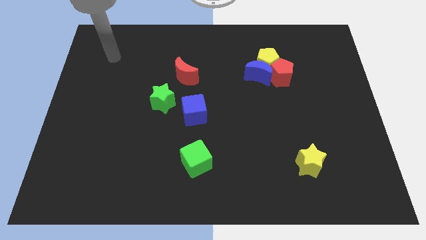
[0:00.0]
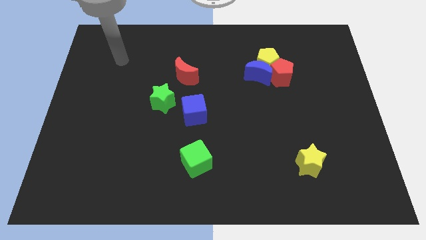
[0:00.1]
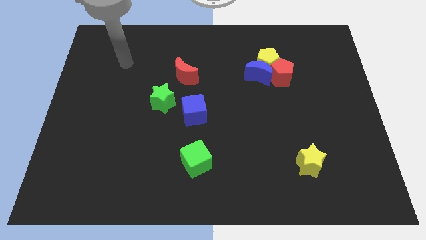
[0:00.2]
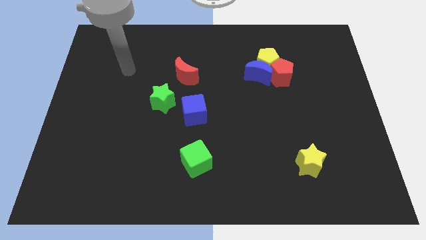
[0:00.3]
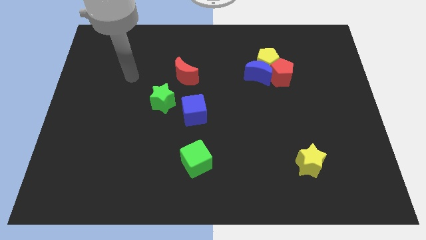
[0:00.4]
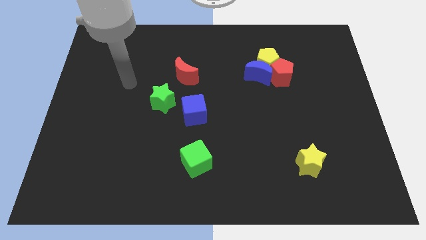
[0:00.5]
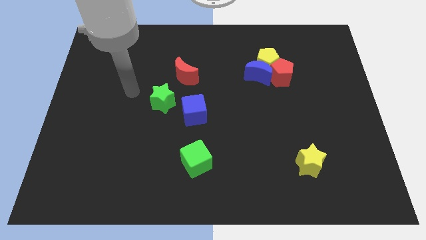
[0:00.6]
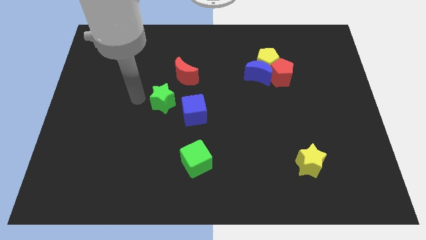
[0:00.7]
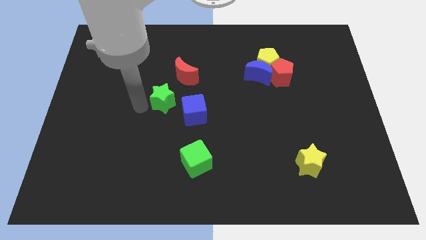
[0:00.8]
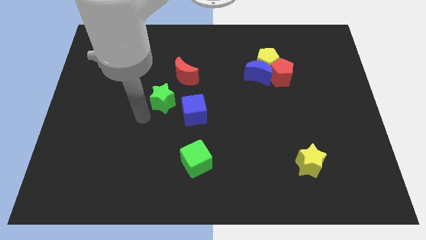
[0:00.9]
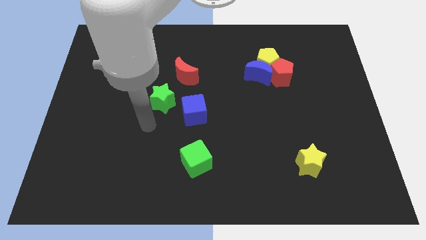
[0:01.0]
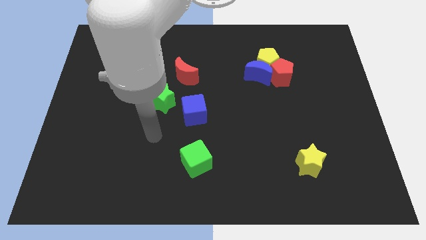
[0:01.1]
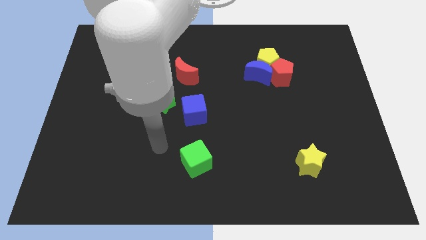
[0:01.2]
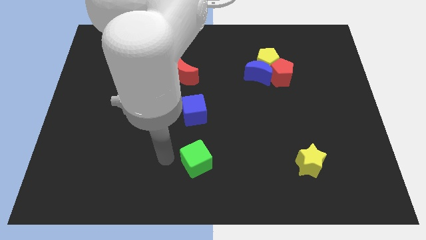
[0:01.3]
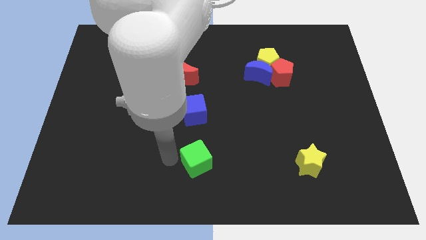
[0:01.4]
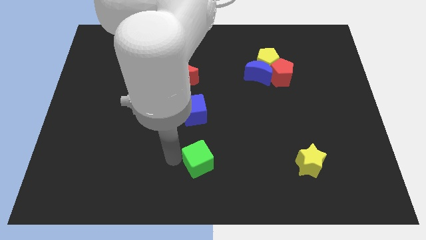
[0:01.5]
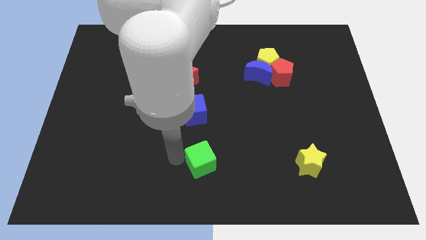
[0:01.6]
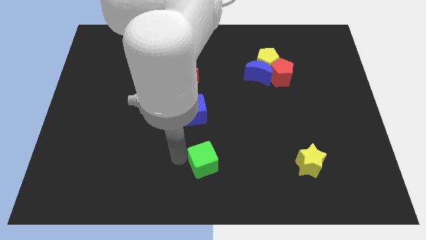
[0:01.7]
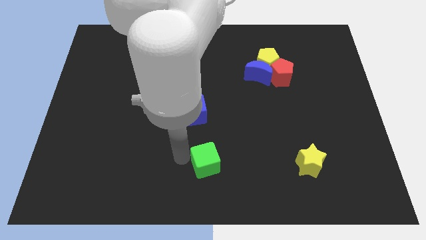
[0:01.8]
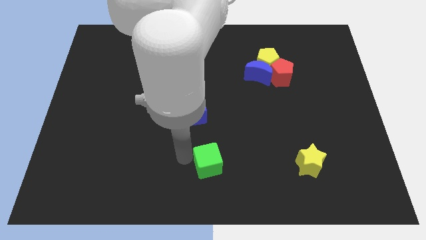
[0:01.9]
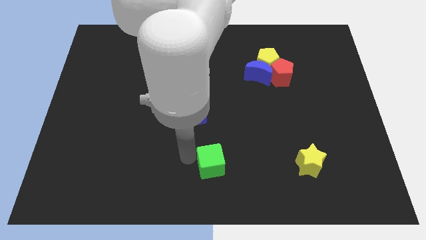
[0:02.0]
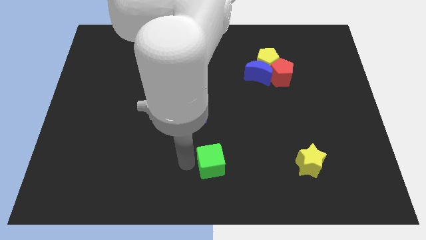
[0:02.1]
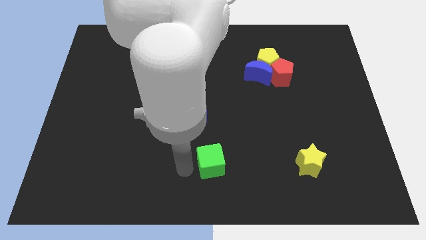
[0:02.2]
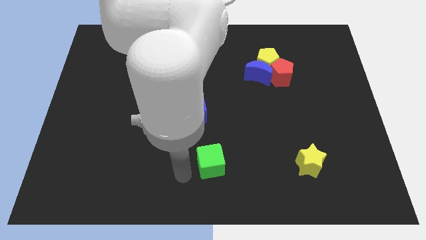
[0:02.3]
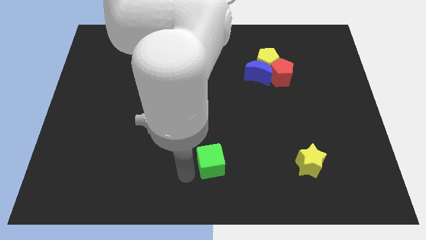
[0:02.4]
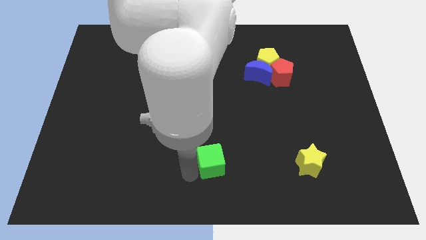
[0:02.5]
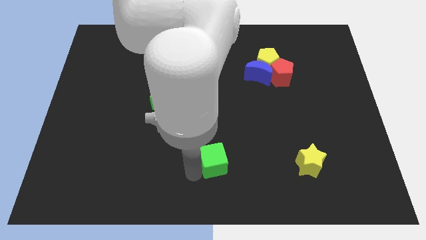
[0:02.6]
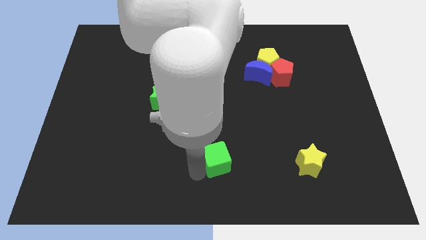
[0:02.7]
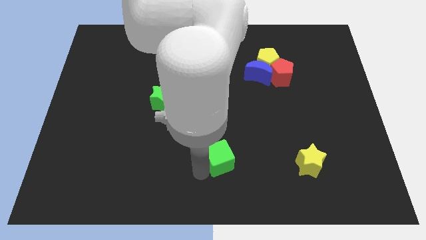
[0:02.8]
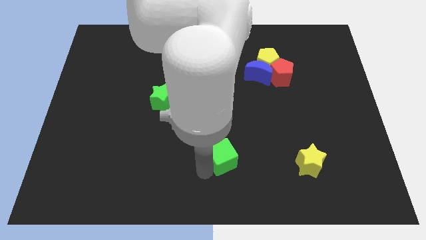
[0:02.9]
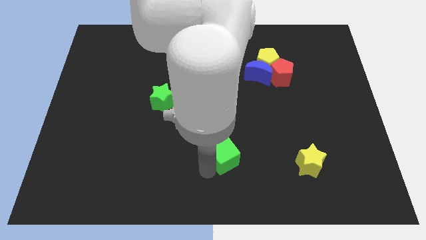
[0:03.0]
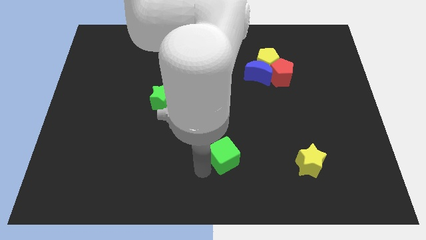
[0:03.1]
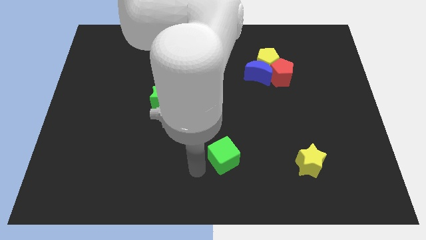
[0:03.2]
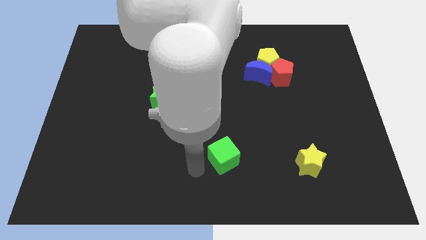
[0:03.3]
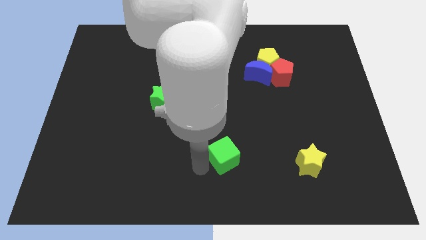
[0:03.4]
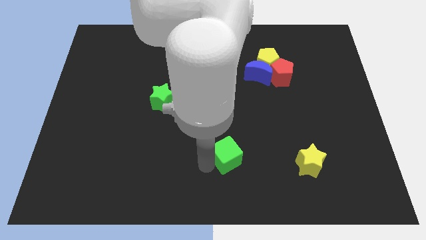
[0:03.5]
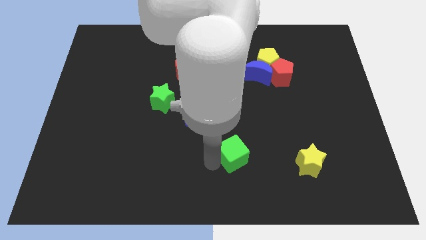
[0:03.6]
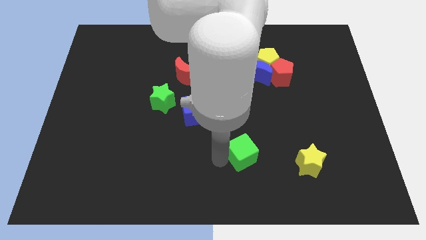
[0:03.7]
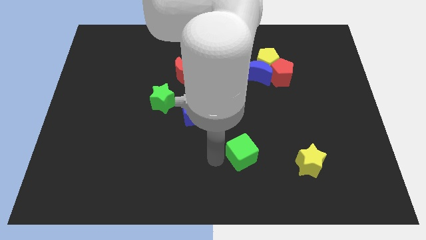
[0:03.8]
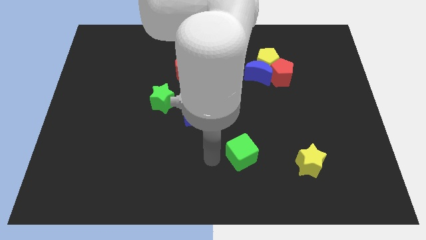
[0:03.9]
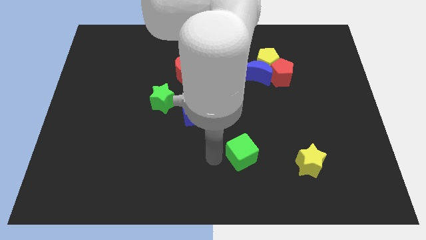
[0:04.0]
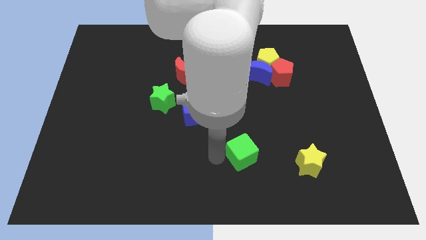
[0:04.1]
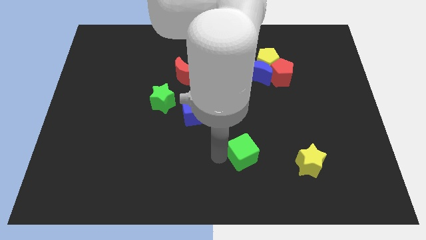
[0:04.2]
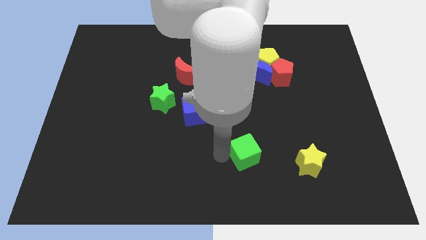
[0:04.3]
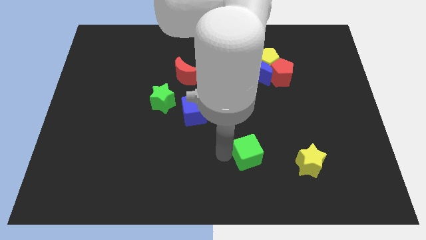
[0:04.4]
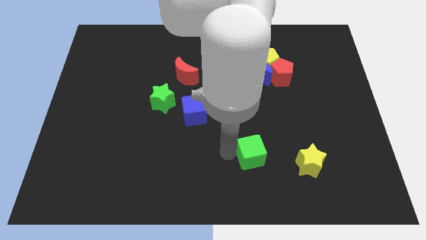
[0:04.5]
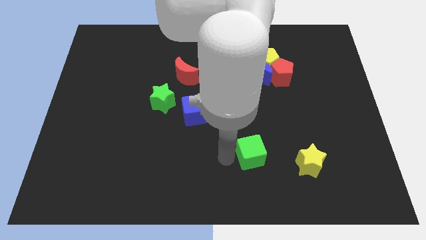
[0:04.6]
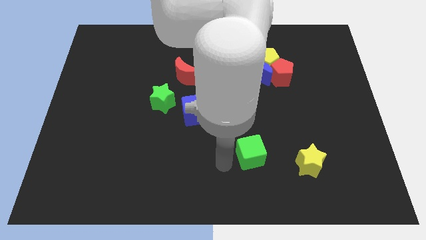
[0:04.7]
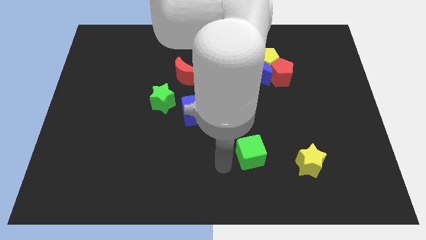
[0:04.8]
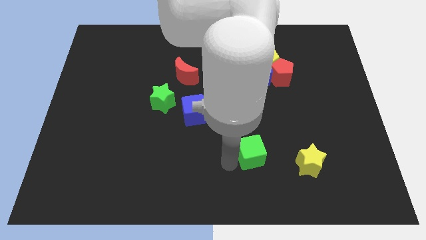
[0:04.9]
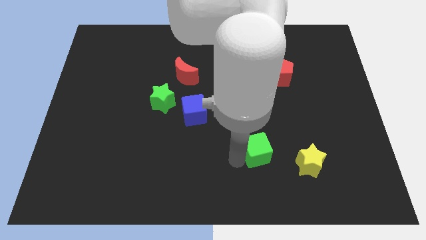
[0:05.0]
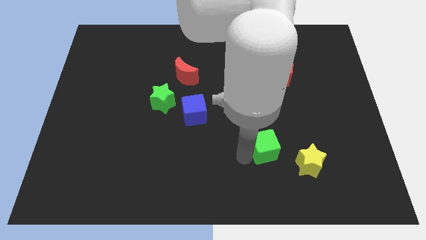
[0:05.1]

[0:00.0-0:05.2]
move the green cube diagonally up and to the left of the yellow star

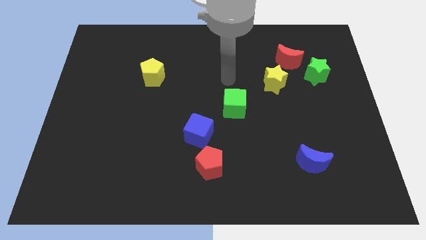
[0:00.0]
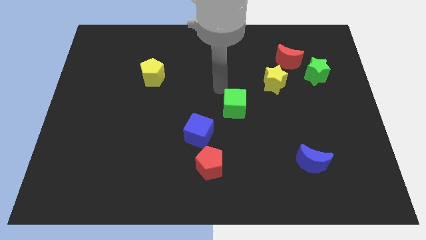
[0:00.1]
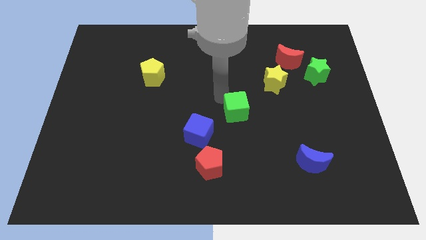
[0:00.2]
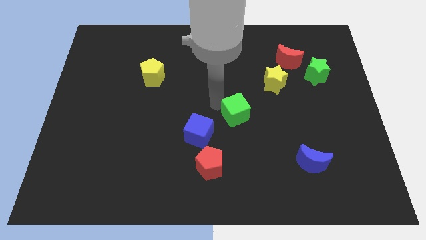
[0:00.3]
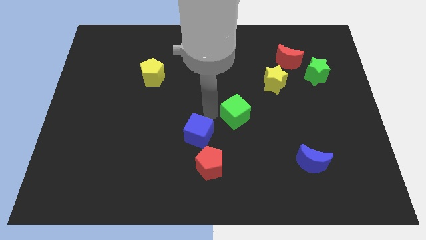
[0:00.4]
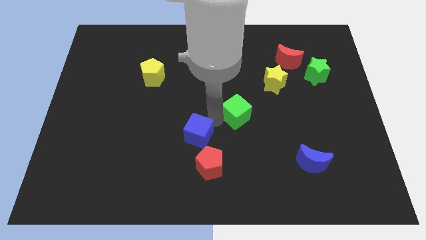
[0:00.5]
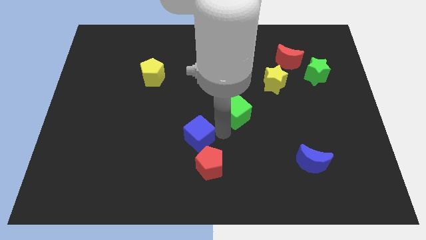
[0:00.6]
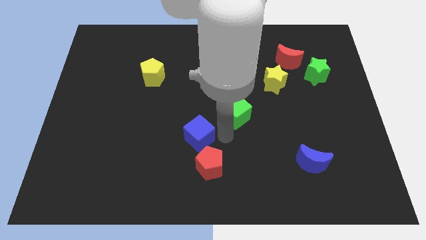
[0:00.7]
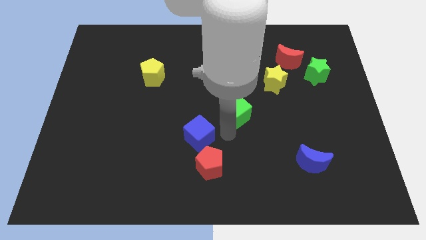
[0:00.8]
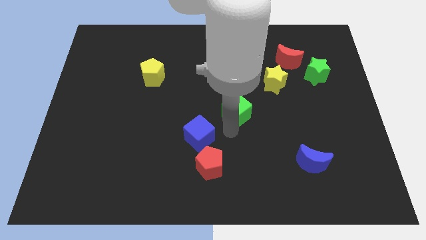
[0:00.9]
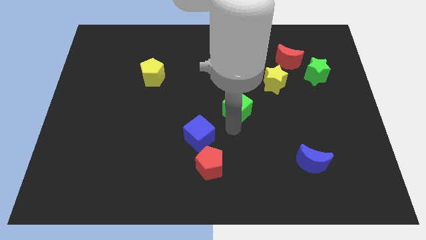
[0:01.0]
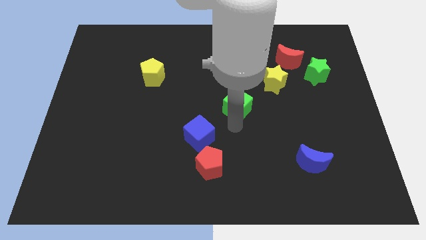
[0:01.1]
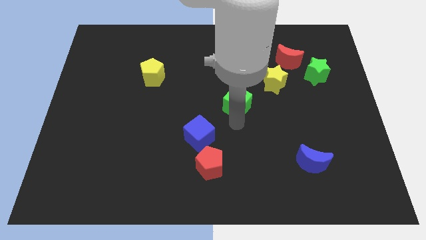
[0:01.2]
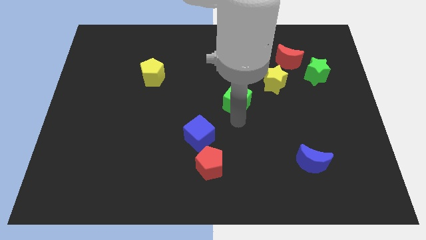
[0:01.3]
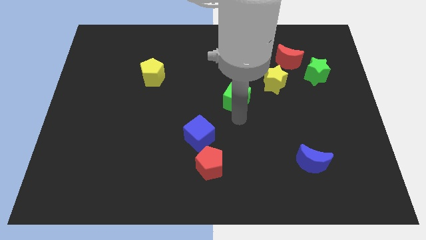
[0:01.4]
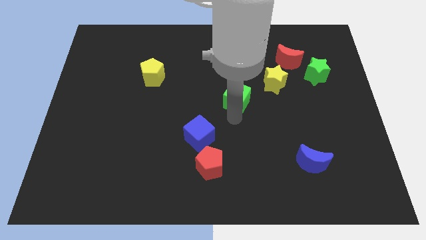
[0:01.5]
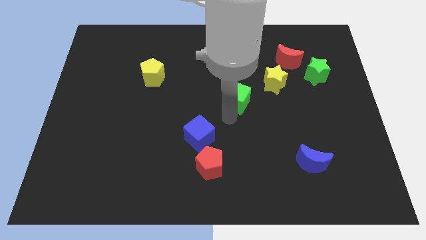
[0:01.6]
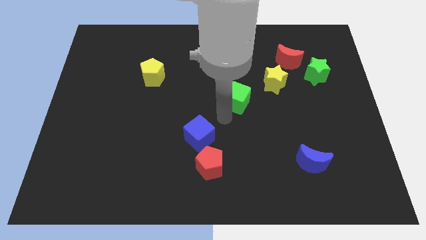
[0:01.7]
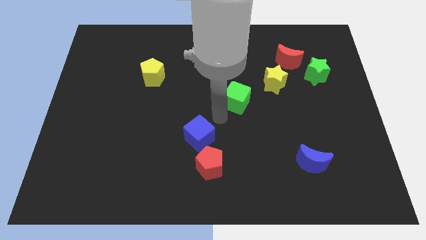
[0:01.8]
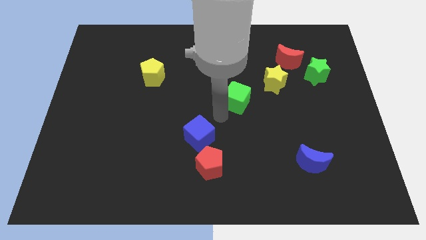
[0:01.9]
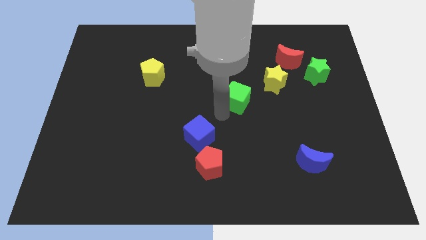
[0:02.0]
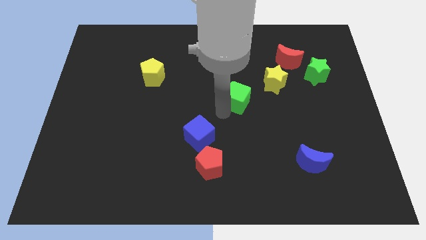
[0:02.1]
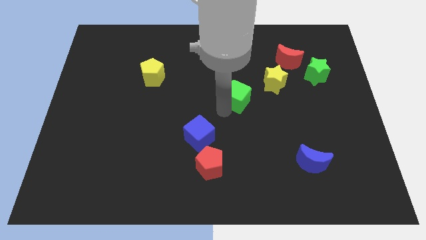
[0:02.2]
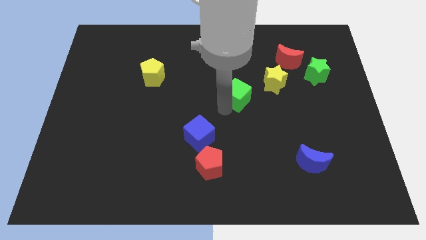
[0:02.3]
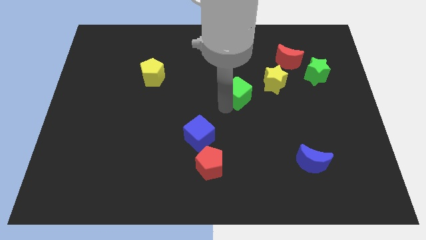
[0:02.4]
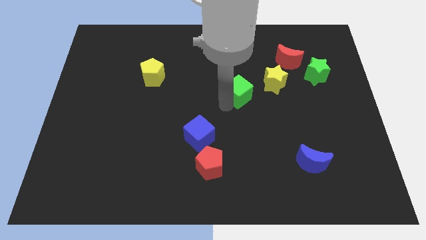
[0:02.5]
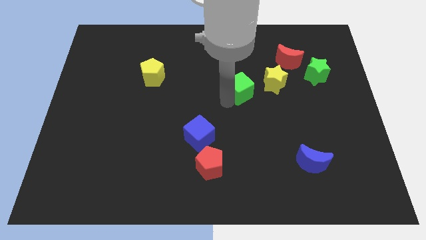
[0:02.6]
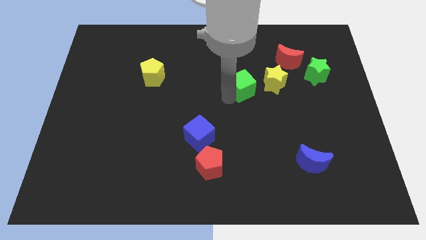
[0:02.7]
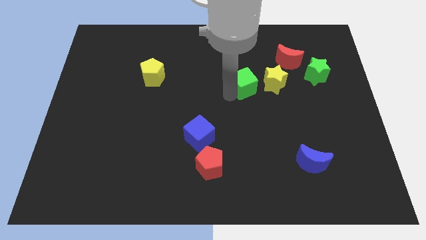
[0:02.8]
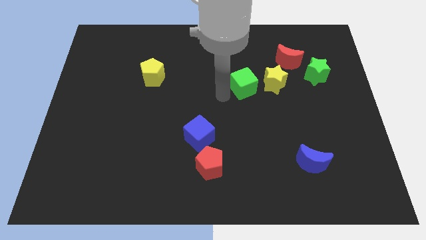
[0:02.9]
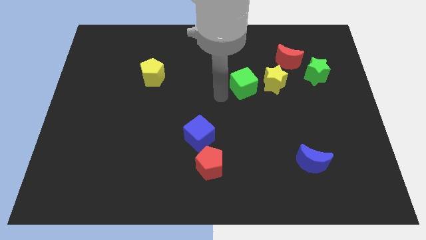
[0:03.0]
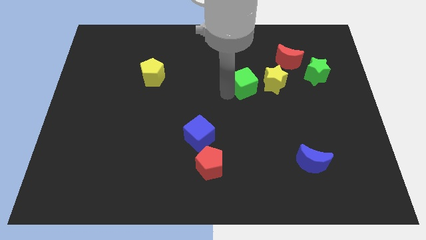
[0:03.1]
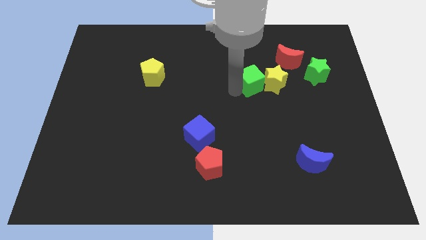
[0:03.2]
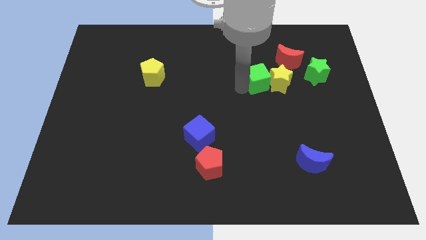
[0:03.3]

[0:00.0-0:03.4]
move the green cube to the left of the green star
